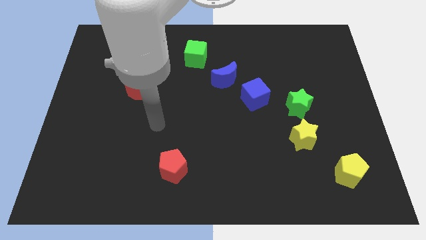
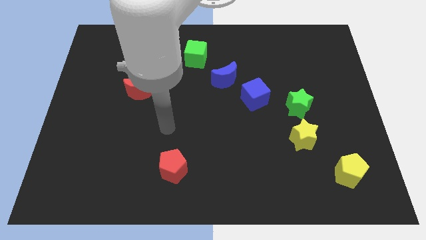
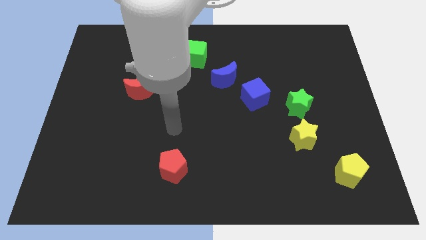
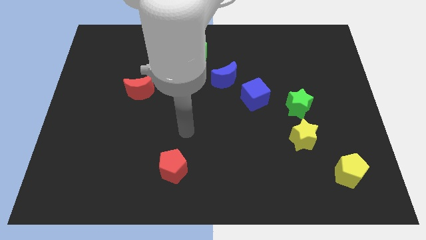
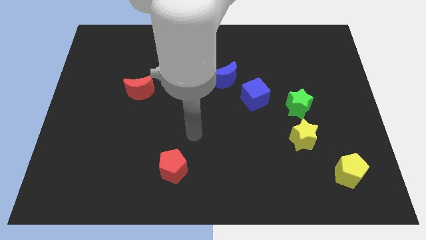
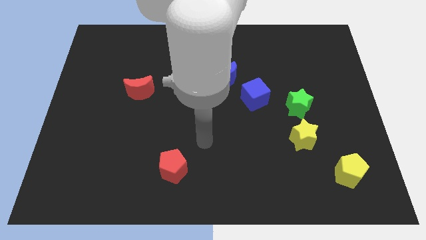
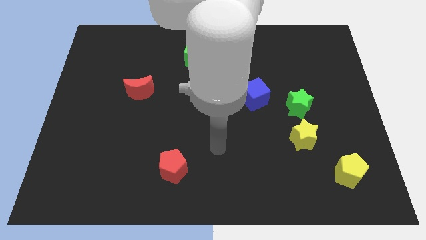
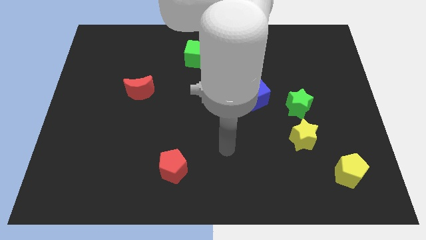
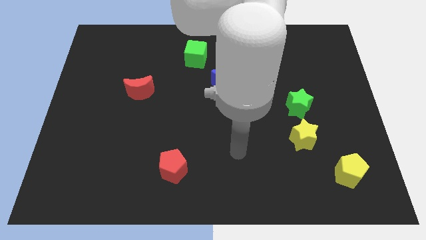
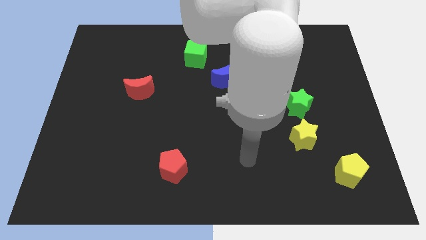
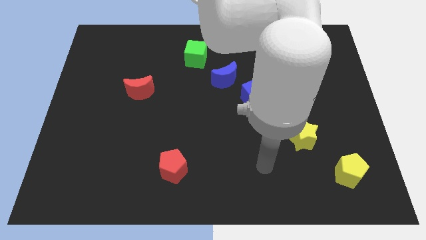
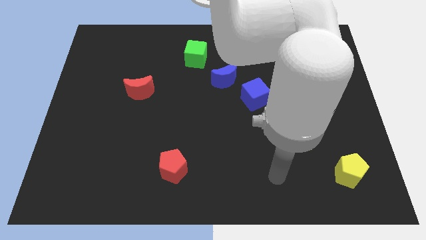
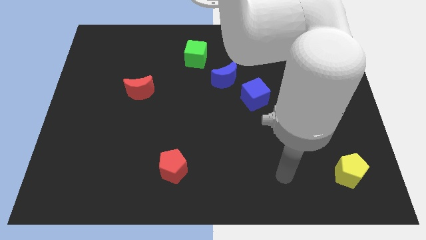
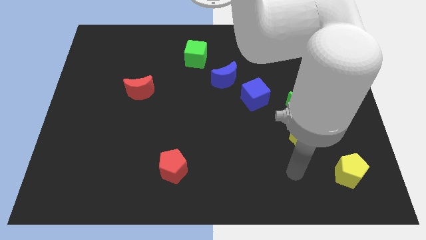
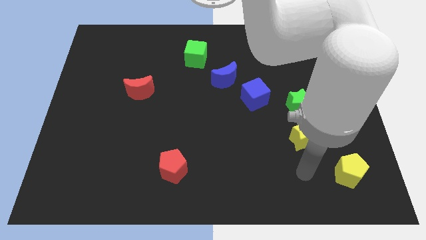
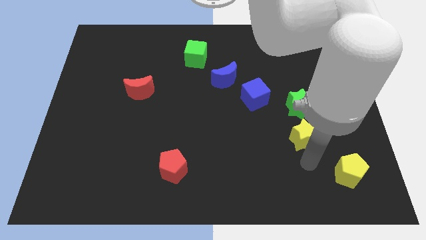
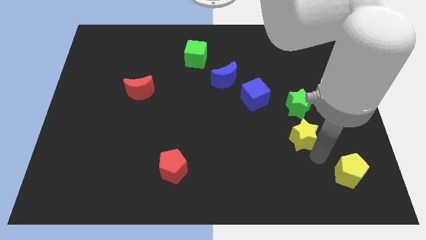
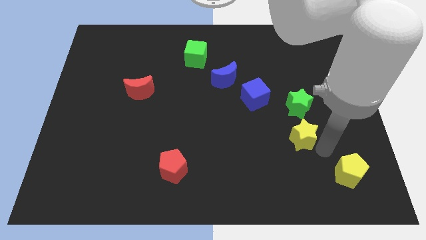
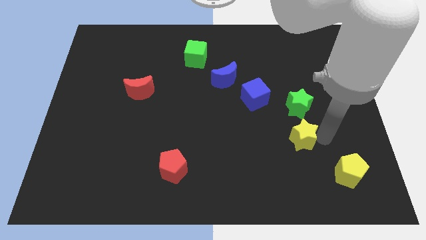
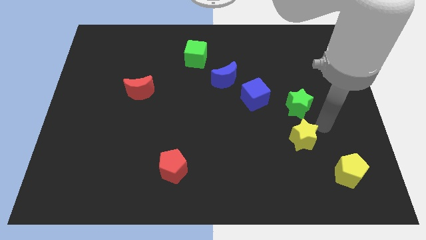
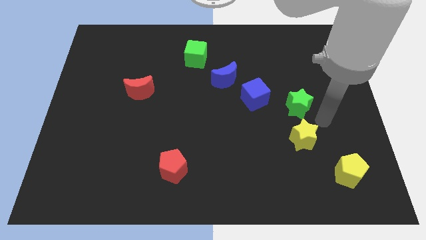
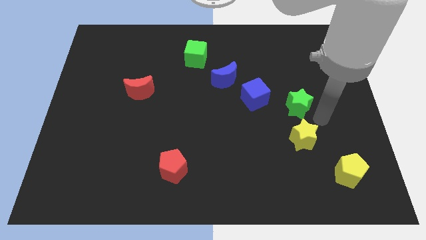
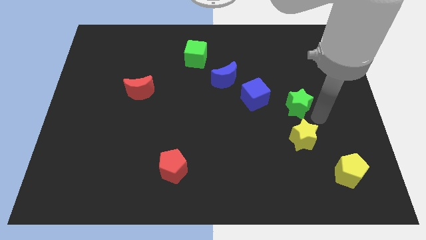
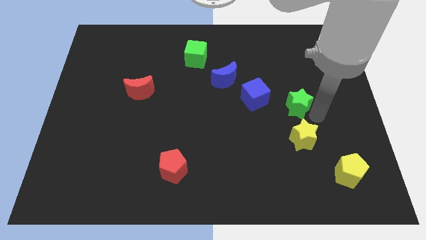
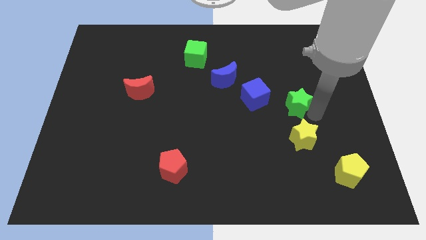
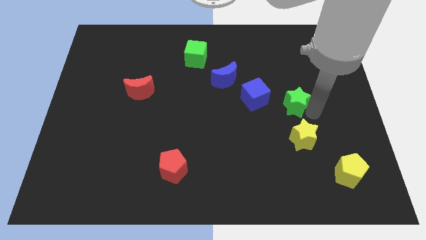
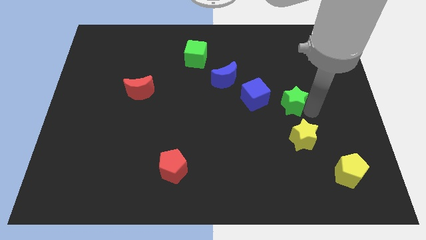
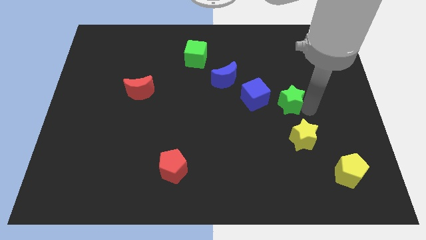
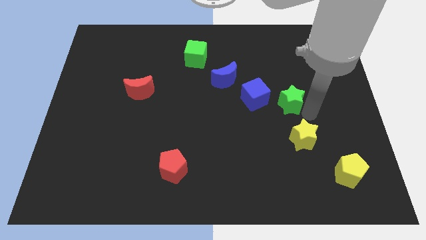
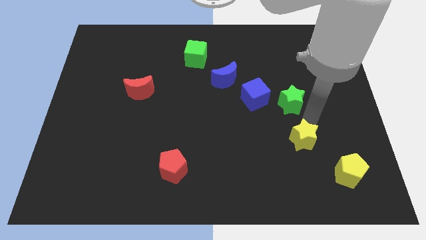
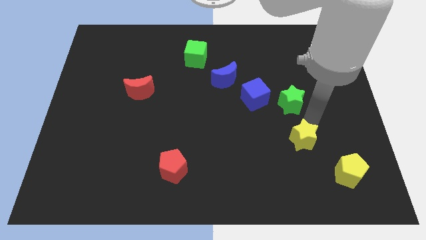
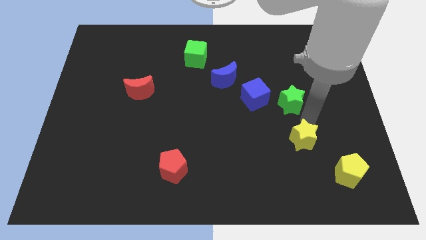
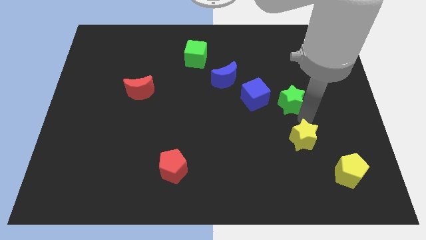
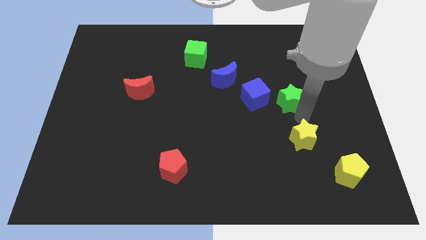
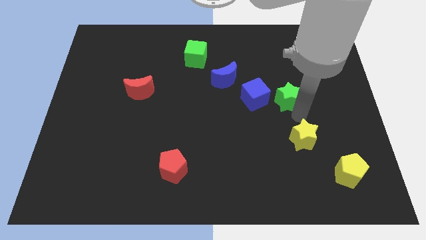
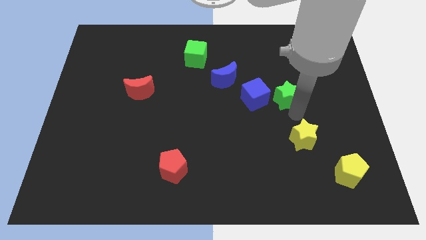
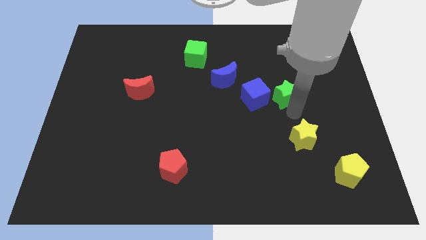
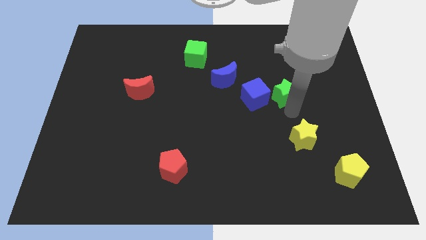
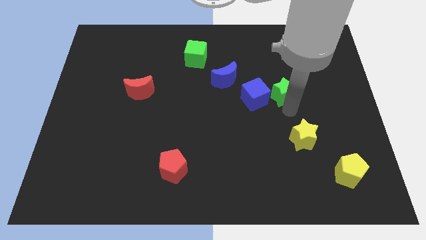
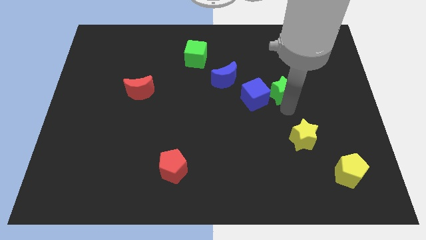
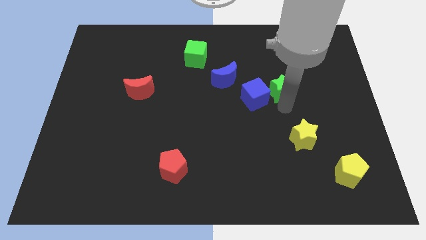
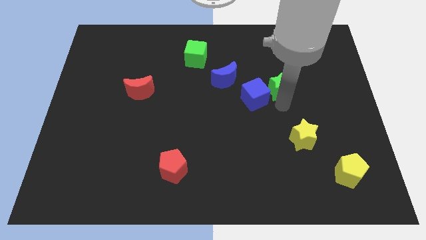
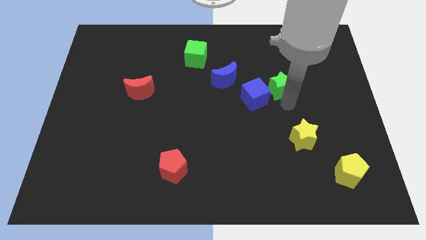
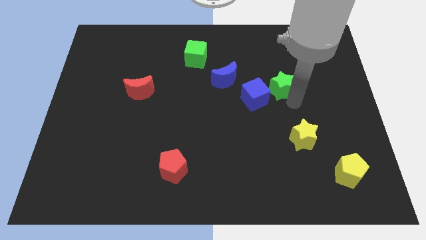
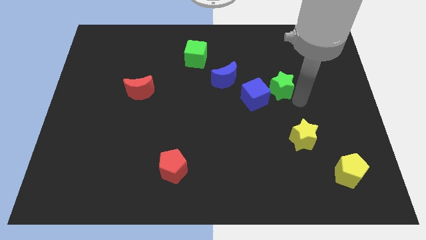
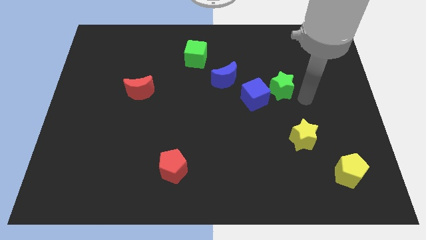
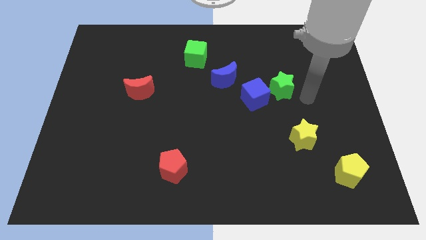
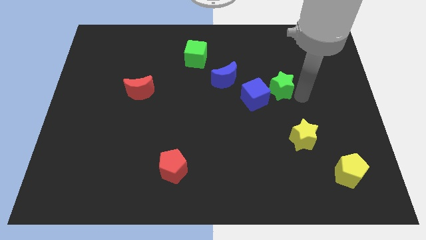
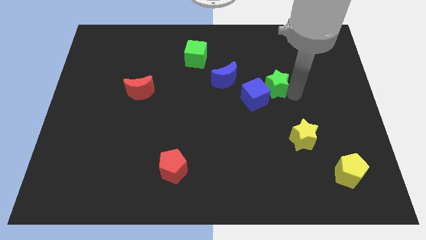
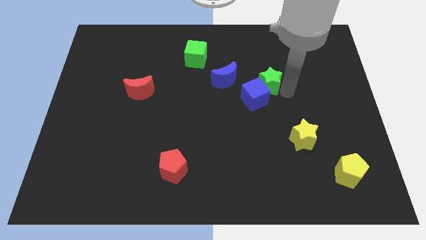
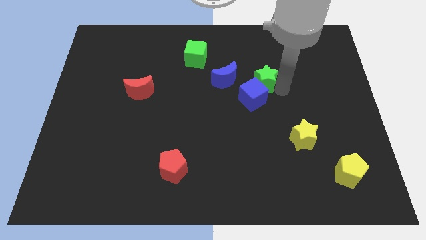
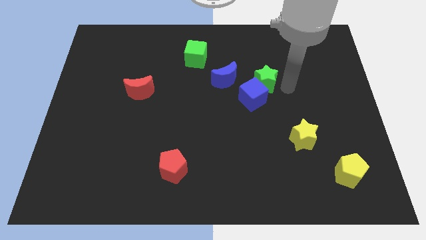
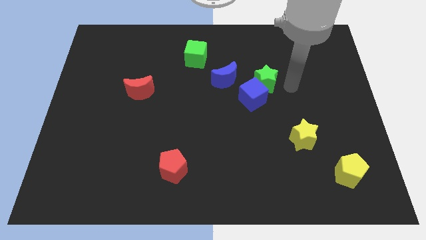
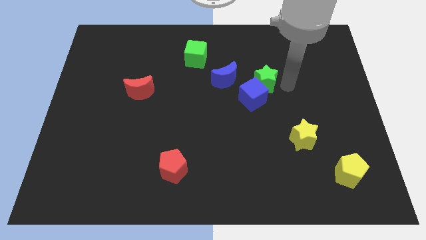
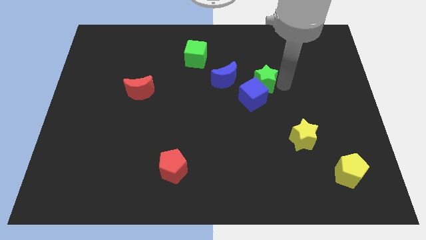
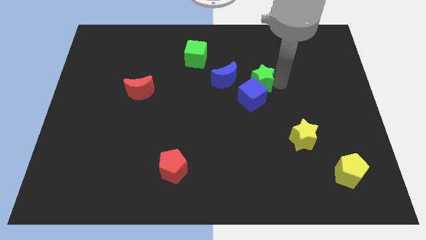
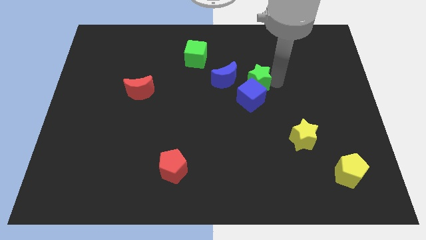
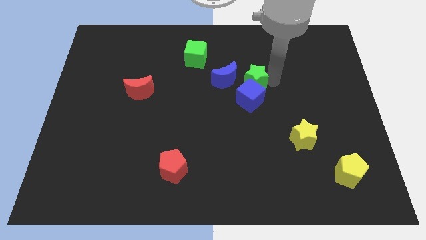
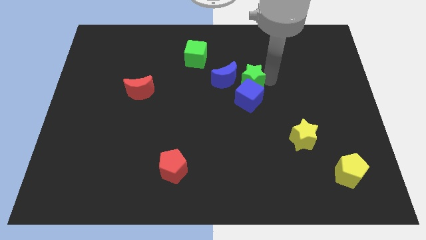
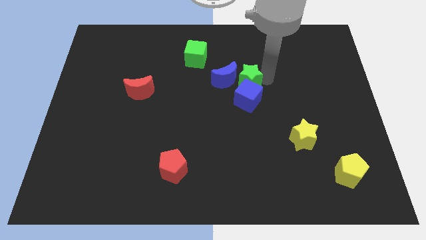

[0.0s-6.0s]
put the green star to the blue moon

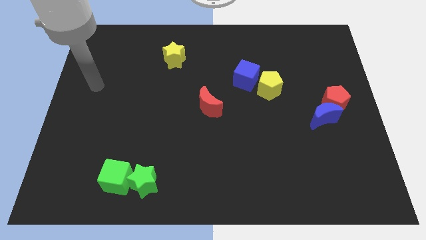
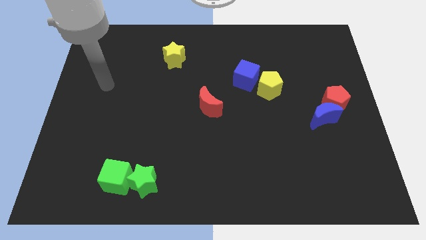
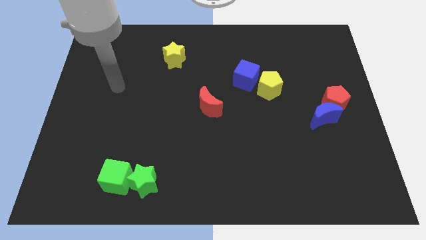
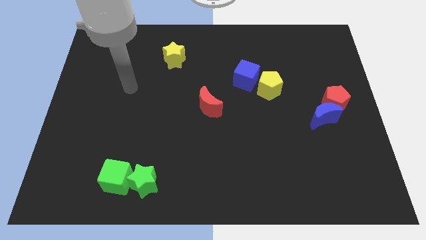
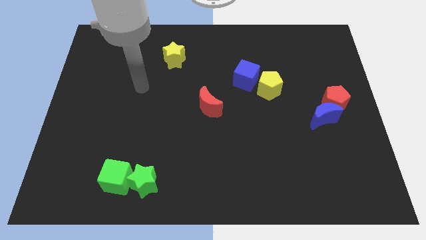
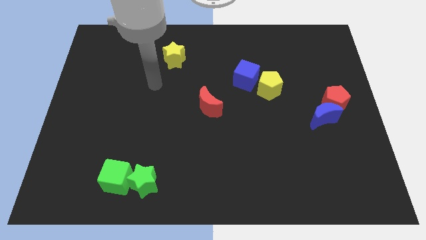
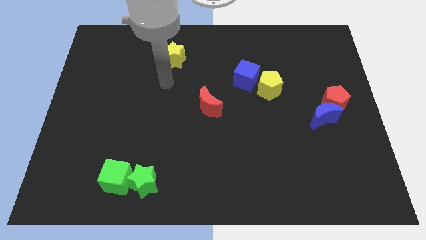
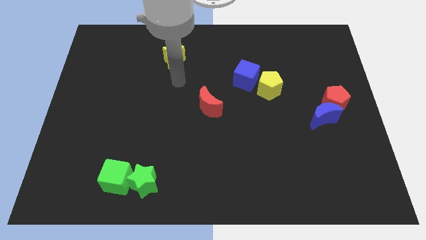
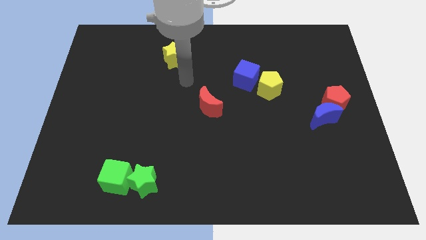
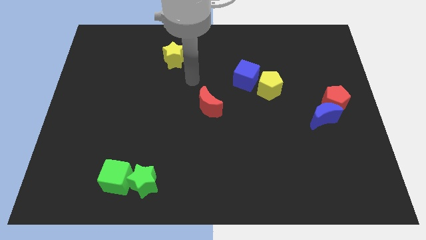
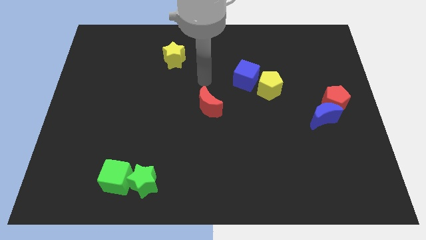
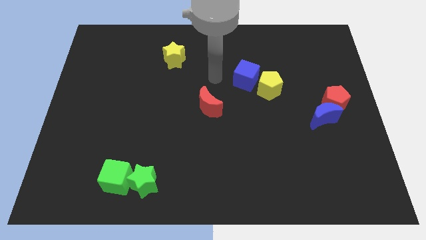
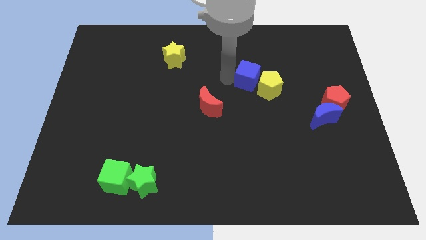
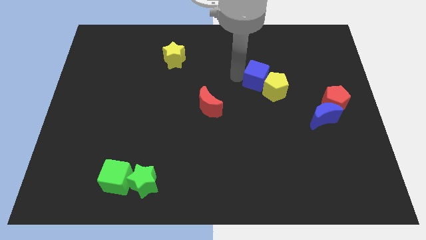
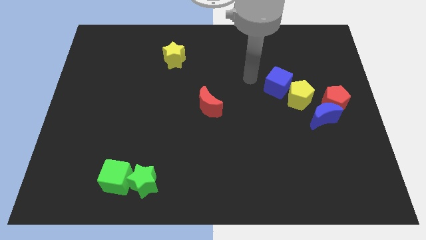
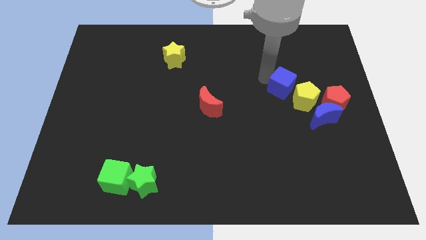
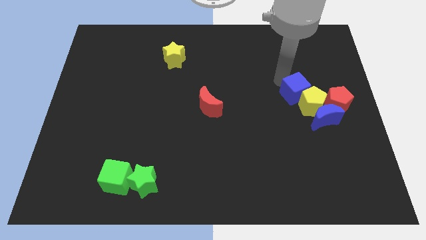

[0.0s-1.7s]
slide the yellow pentagon close to the blue moon
